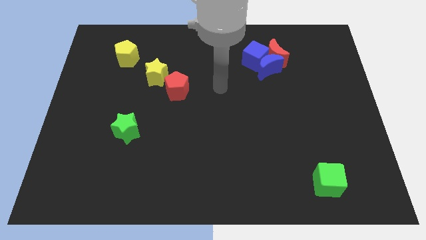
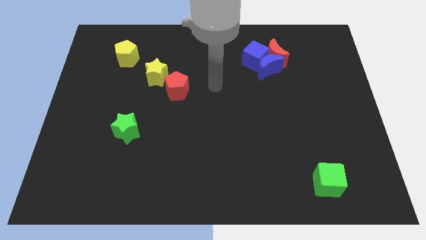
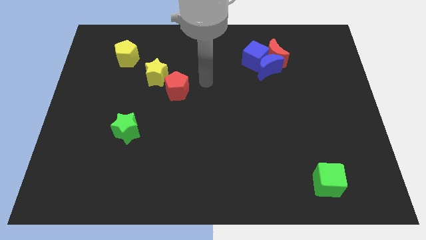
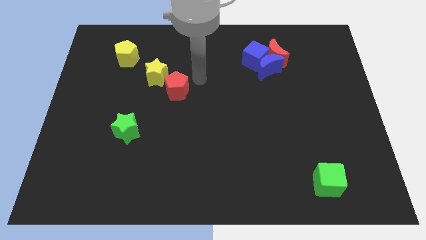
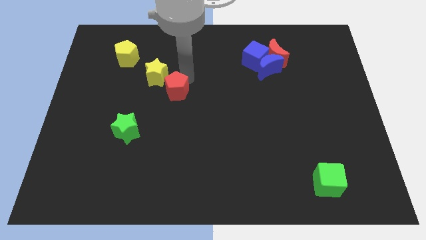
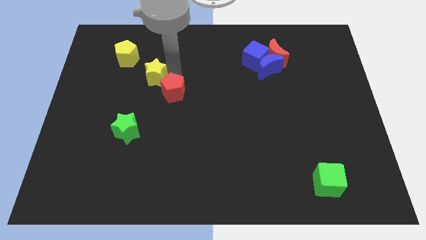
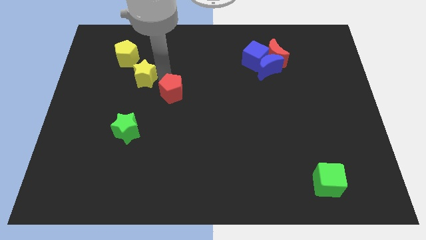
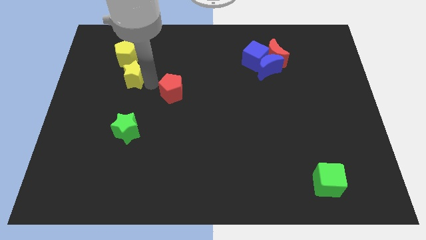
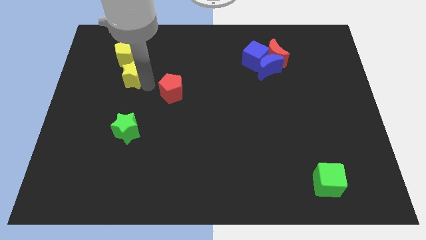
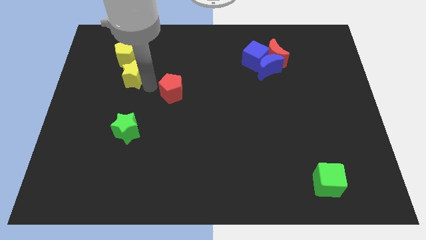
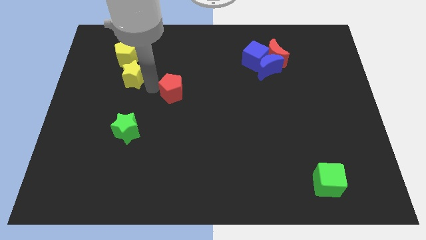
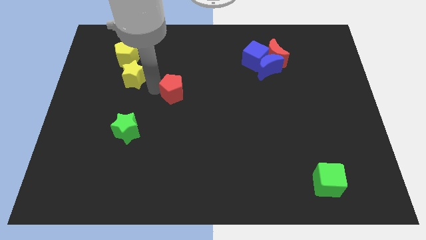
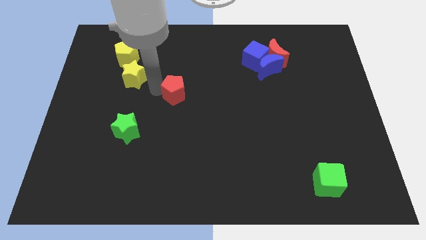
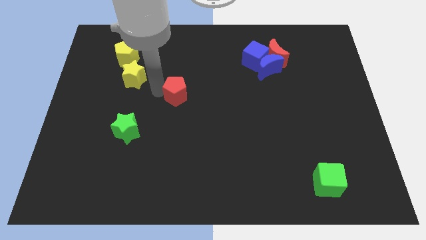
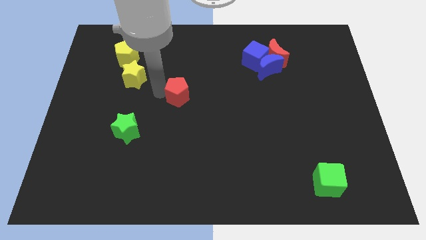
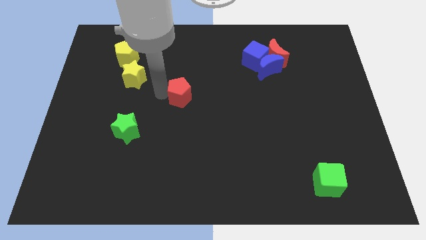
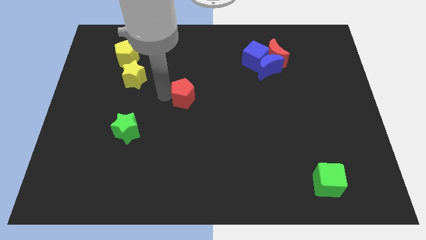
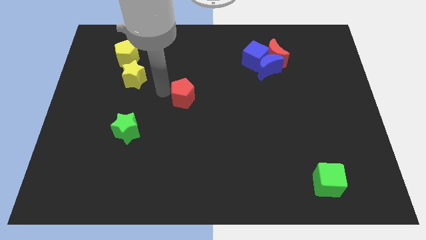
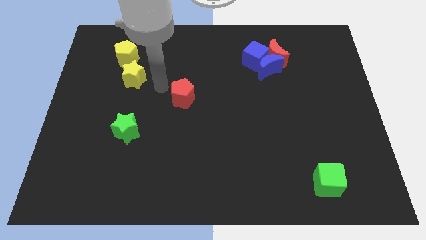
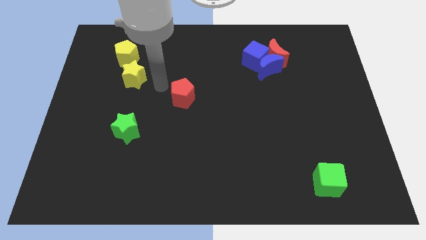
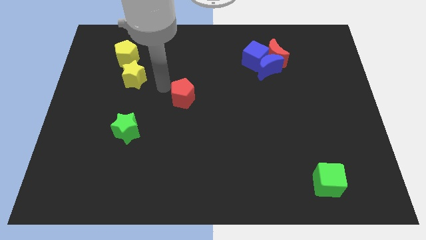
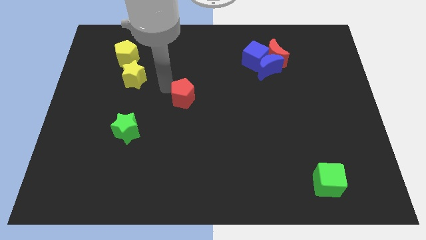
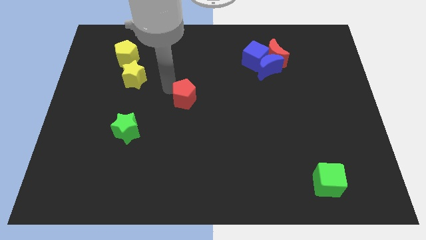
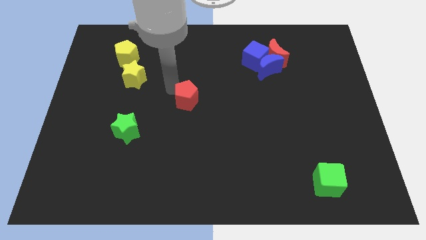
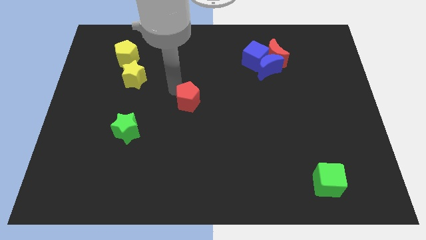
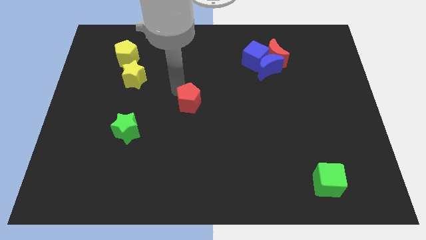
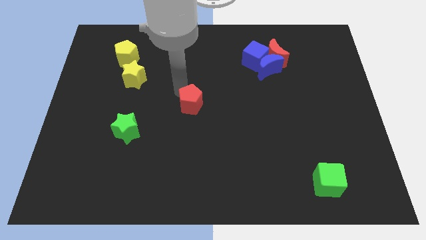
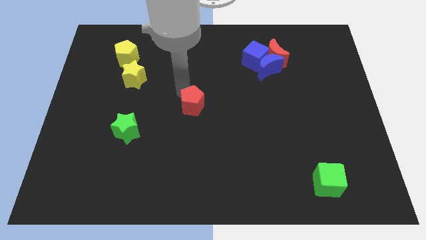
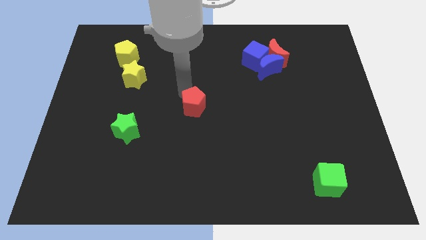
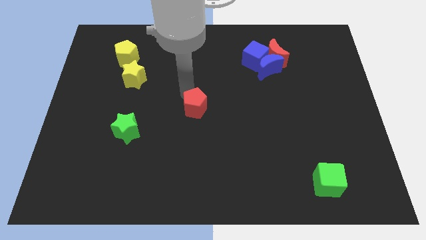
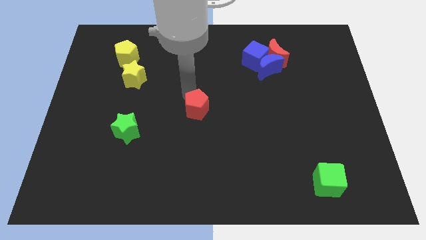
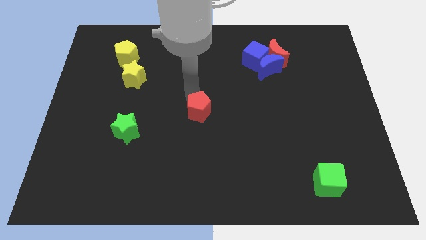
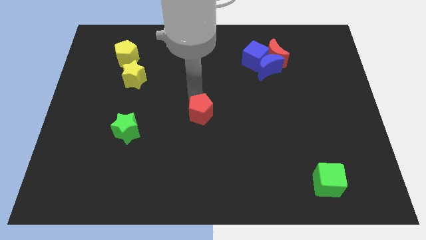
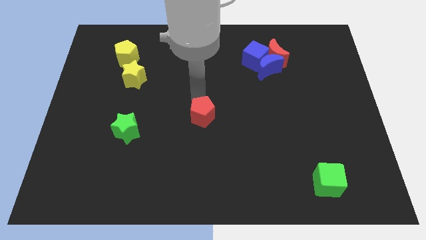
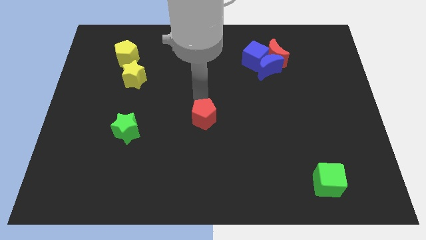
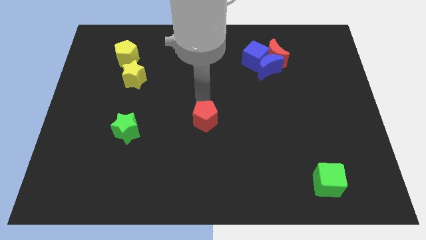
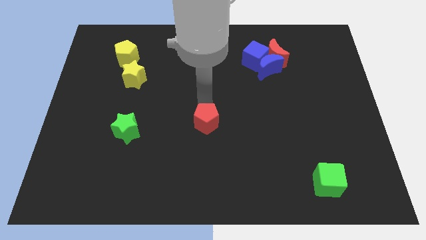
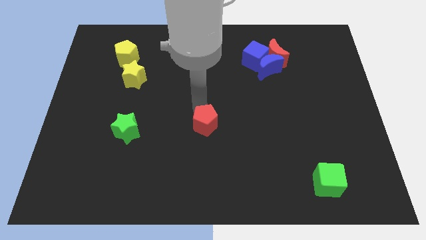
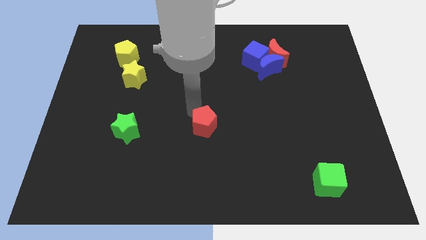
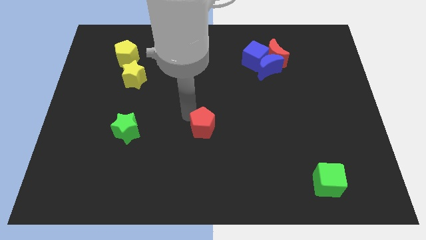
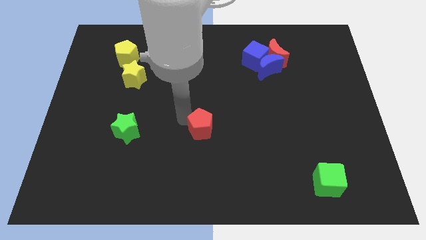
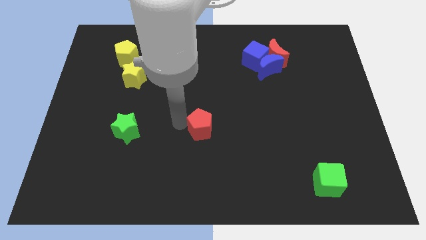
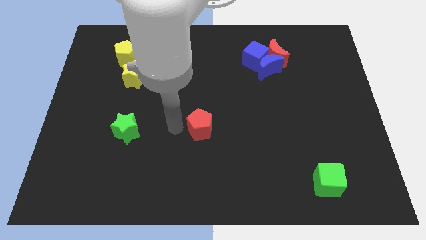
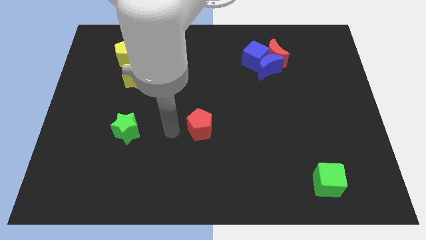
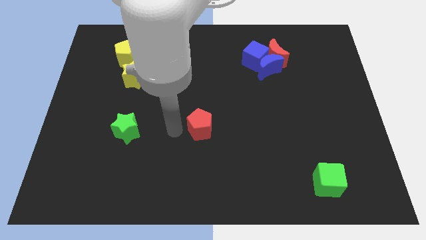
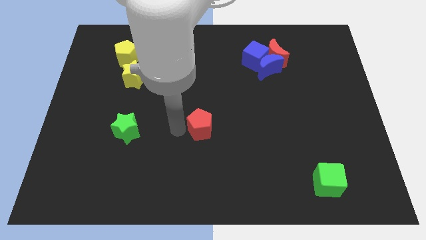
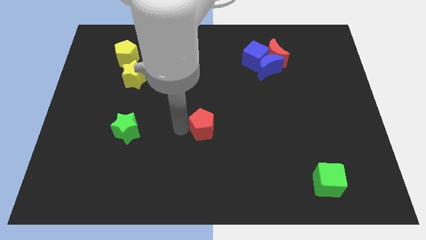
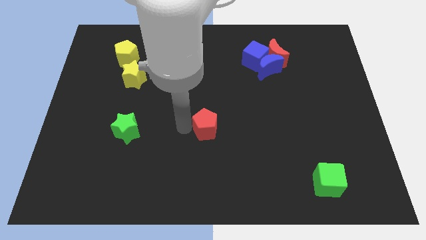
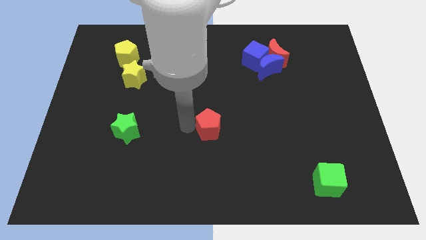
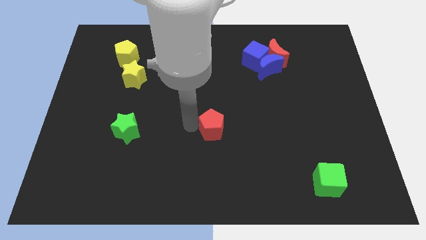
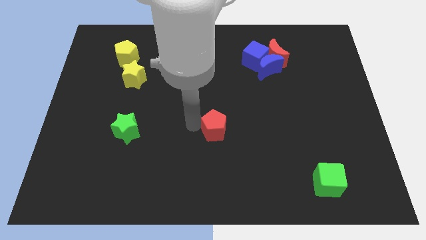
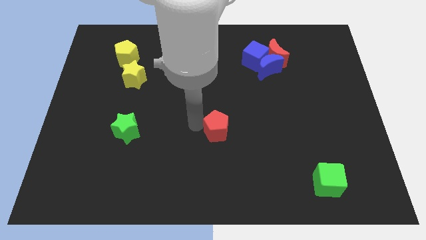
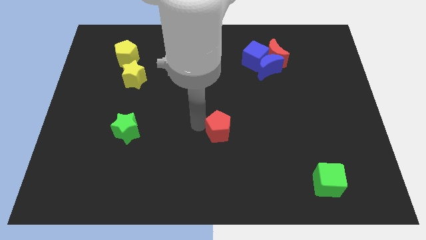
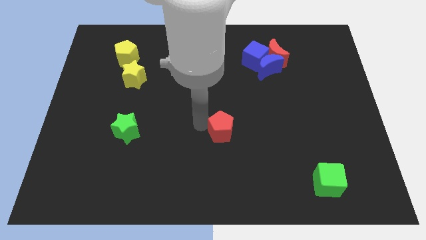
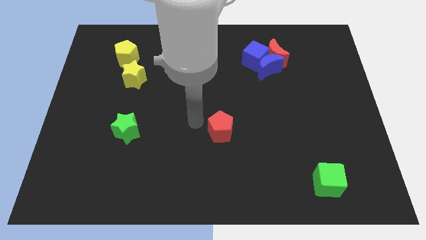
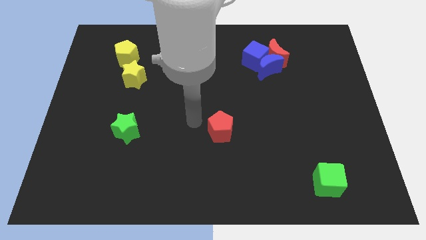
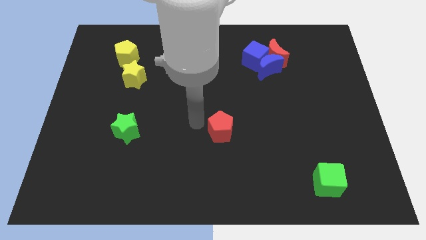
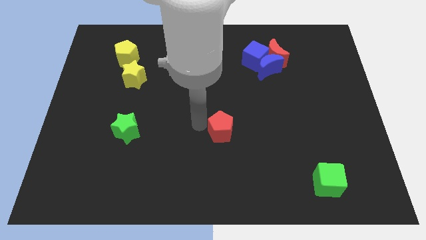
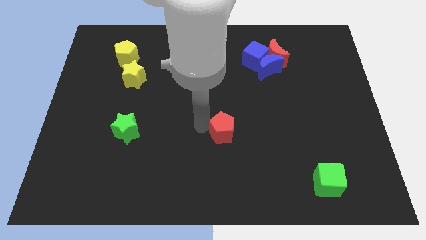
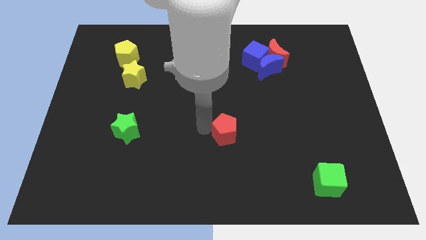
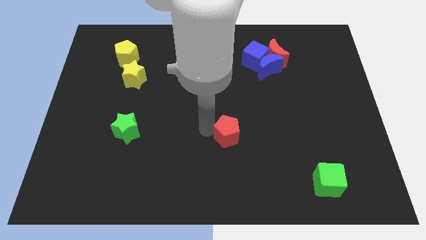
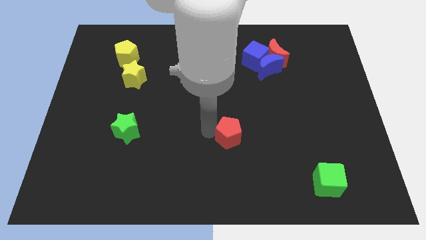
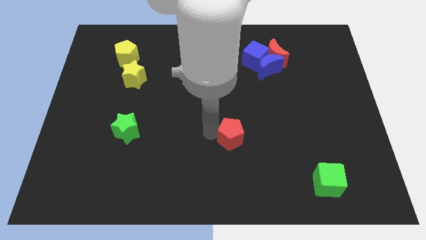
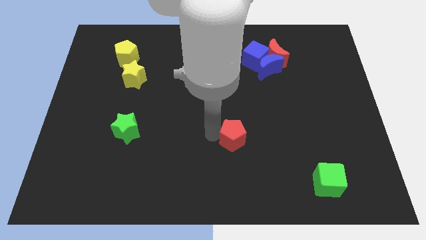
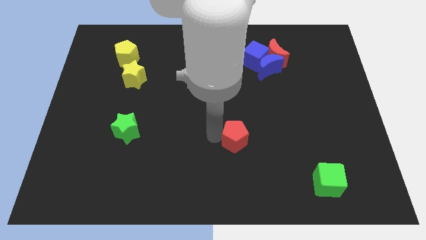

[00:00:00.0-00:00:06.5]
push the red pentagon downwards and then right

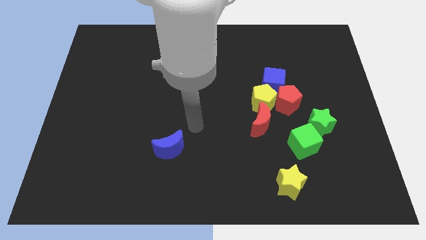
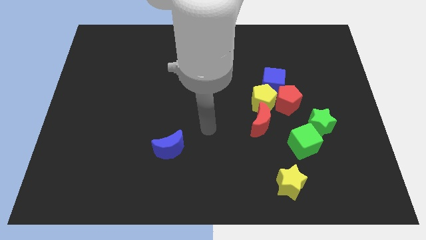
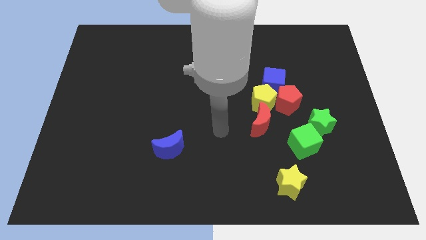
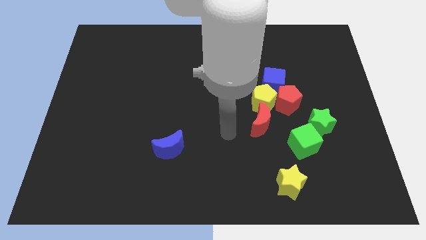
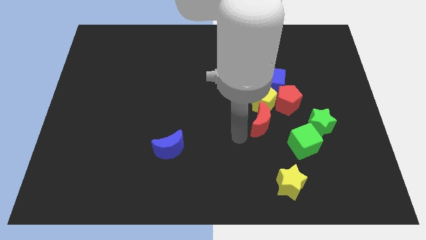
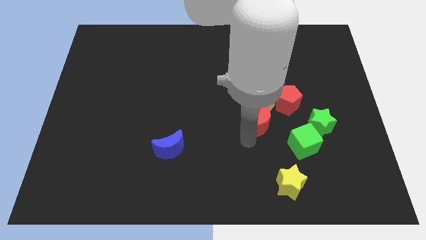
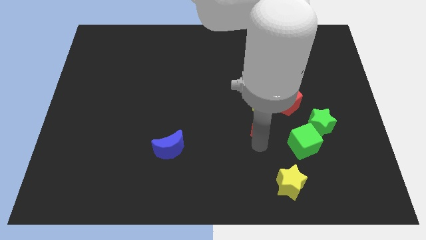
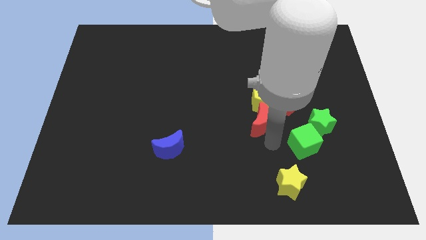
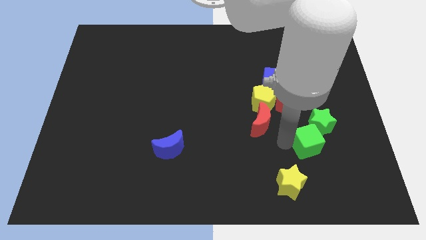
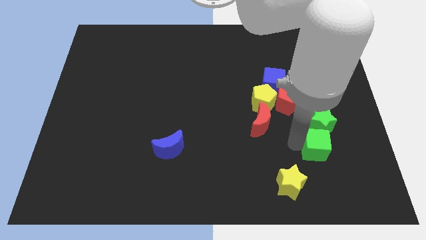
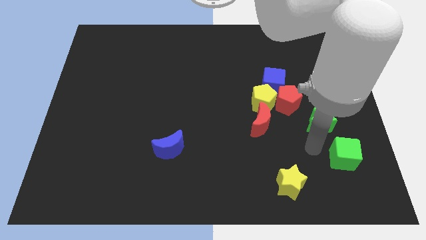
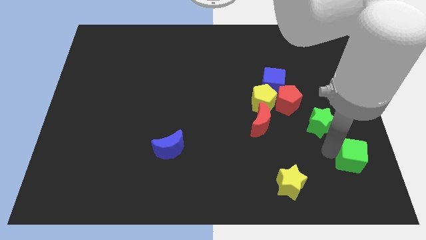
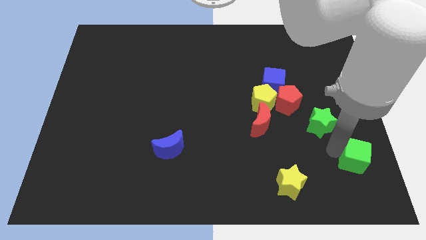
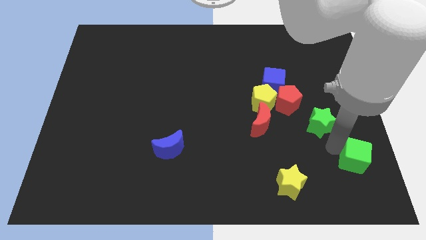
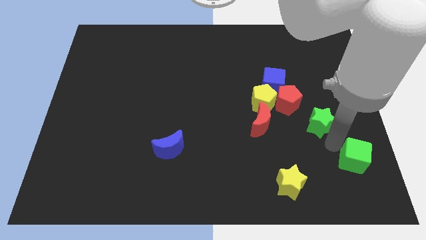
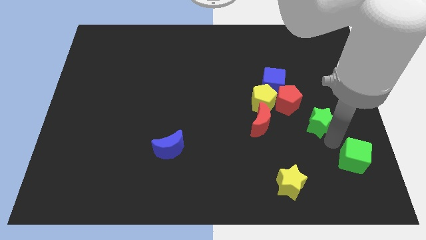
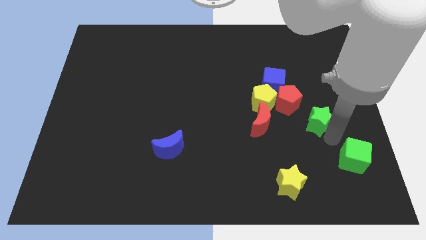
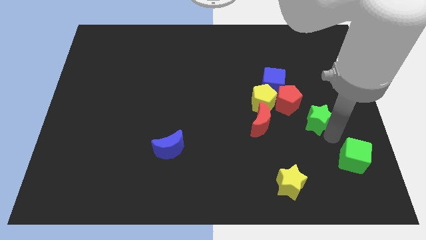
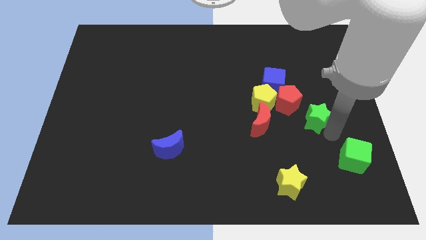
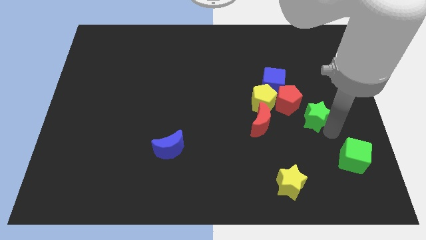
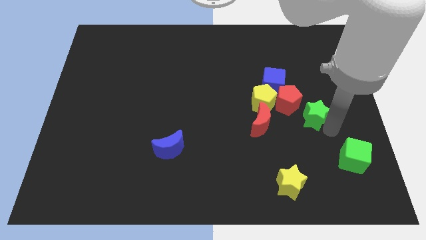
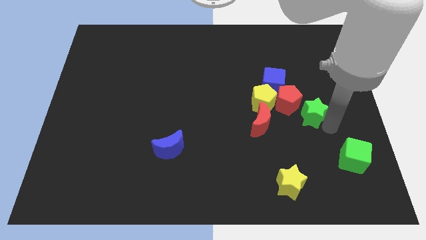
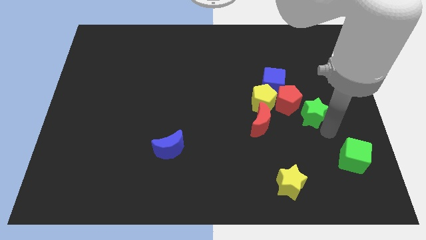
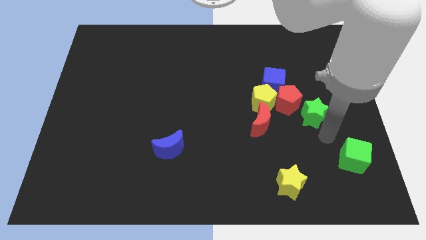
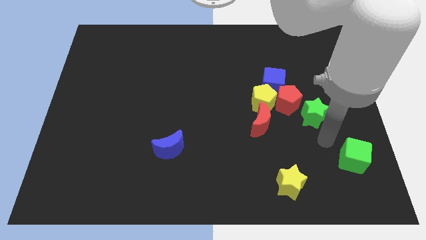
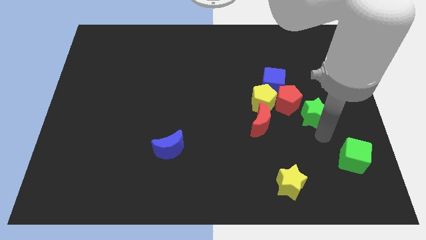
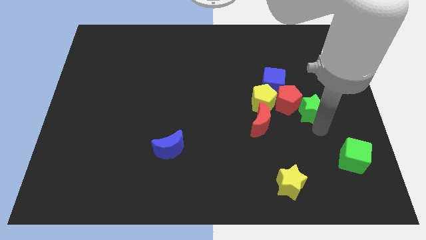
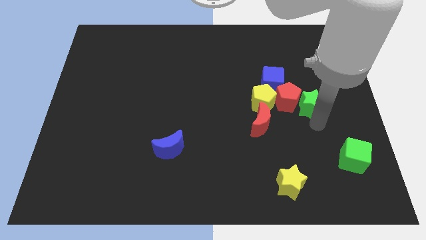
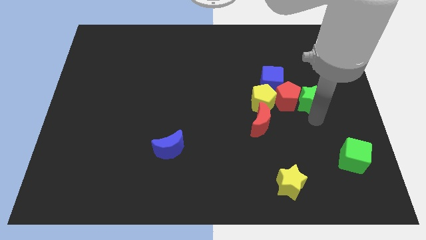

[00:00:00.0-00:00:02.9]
slide the green star upwards a little bit
